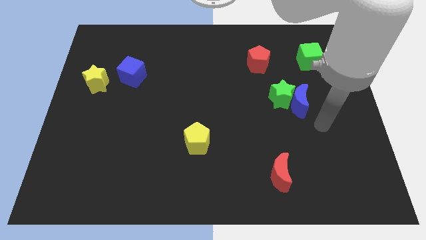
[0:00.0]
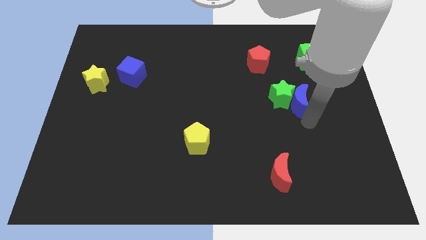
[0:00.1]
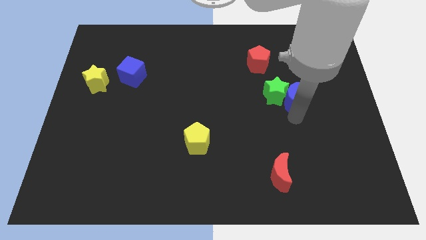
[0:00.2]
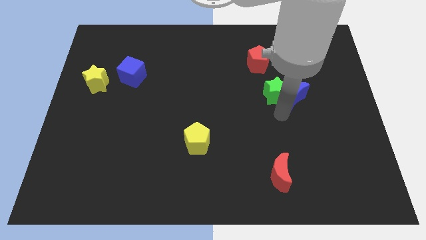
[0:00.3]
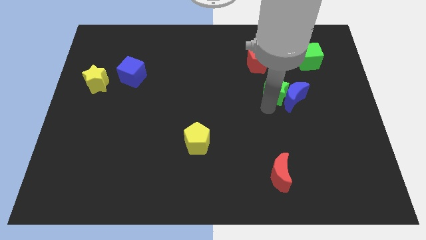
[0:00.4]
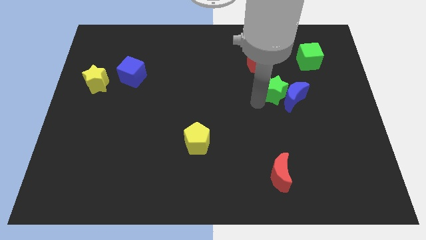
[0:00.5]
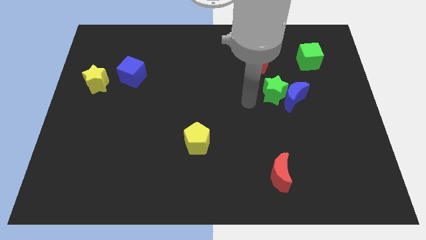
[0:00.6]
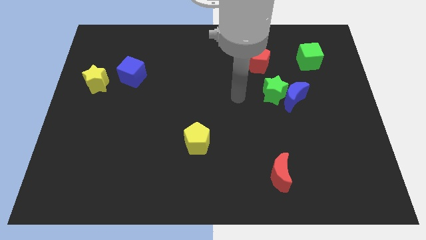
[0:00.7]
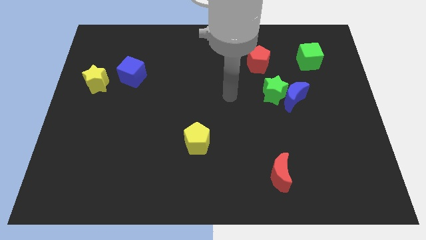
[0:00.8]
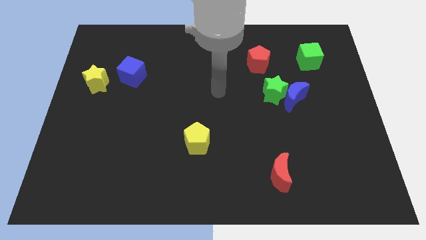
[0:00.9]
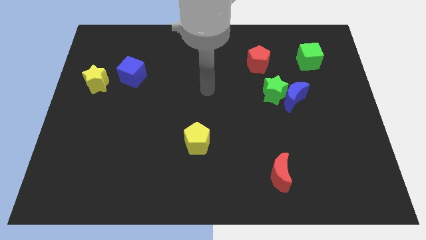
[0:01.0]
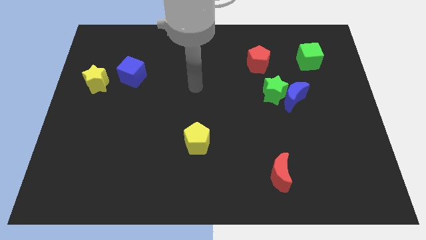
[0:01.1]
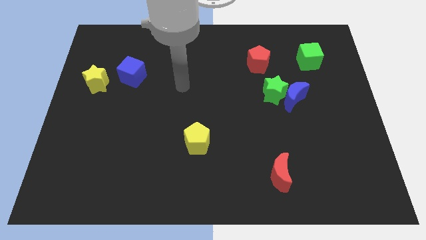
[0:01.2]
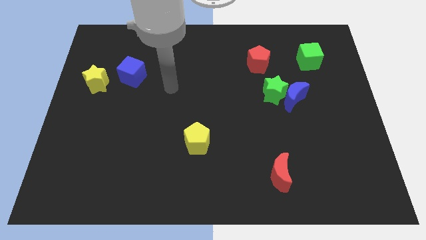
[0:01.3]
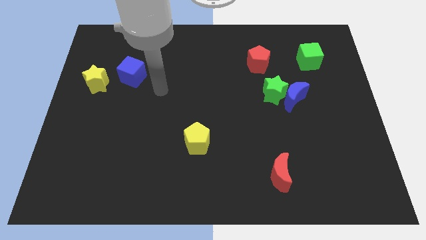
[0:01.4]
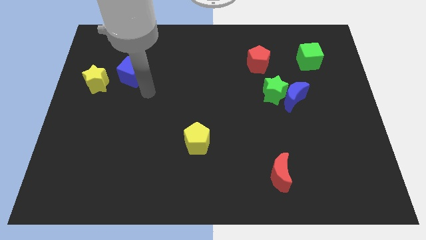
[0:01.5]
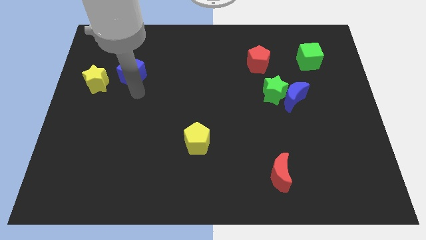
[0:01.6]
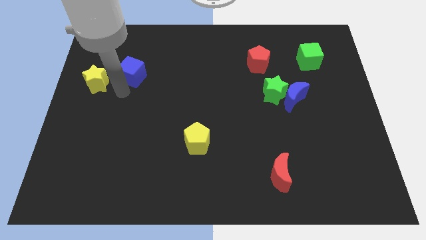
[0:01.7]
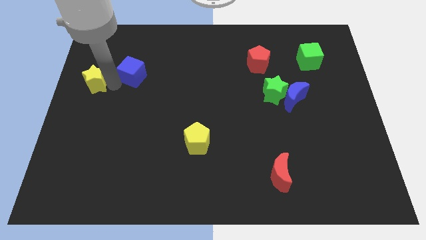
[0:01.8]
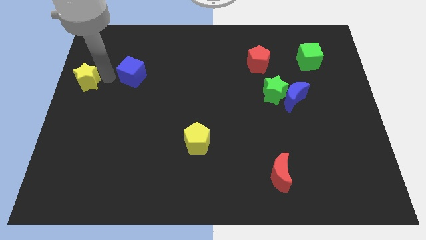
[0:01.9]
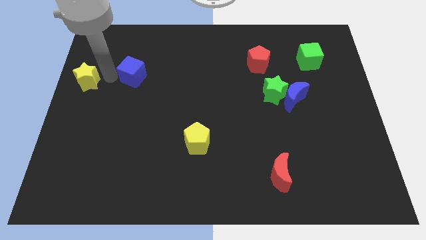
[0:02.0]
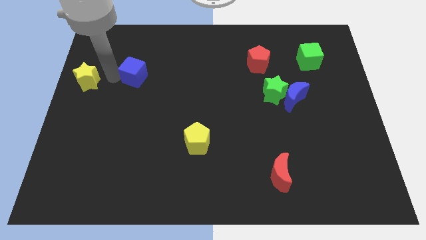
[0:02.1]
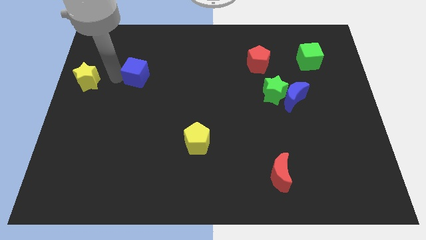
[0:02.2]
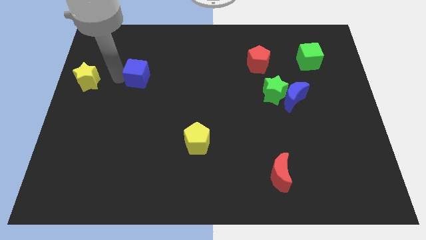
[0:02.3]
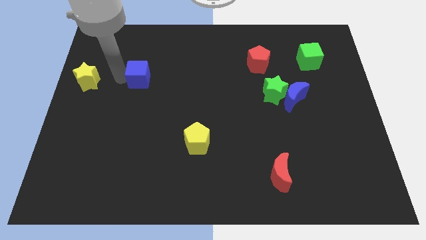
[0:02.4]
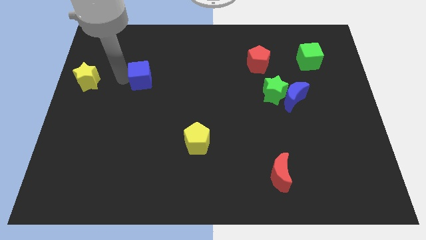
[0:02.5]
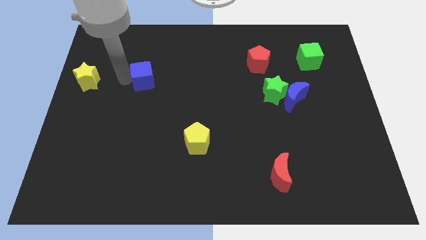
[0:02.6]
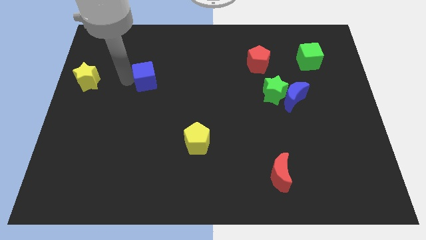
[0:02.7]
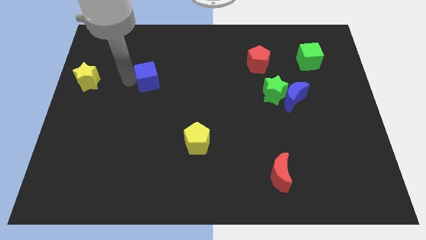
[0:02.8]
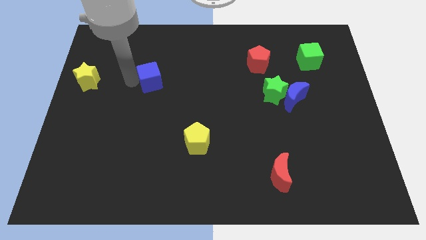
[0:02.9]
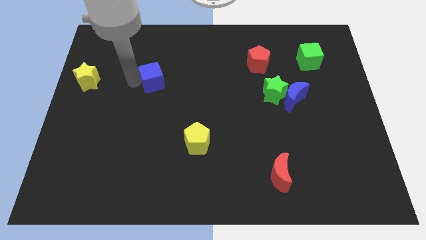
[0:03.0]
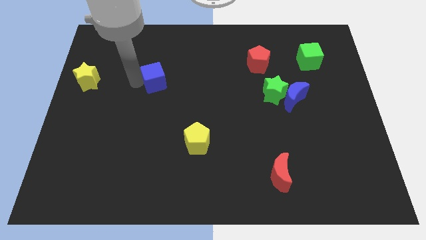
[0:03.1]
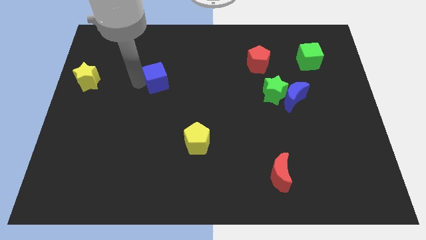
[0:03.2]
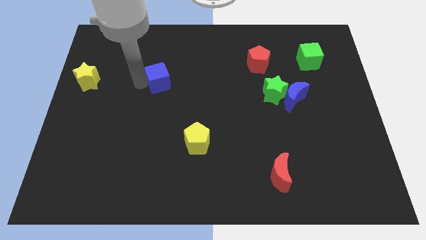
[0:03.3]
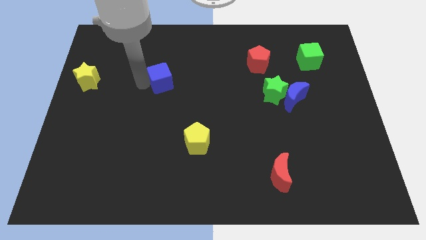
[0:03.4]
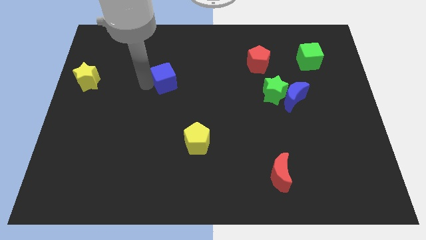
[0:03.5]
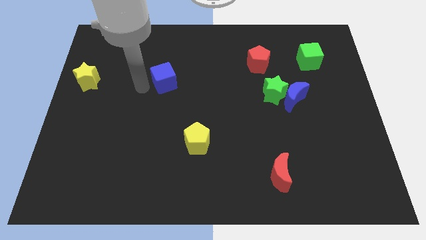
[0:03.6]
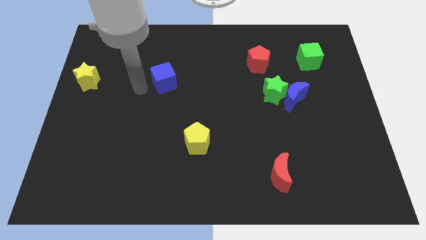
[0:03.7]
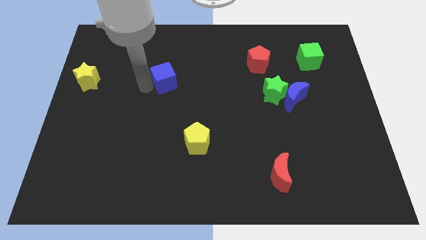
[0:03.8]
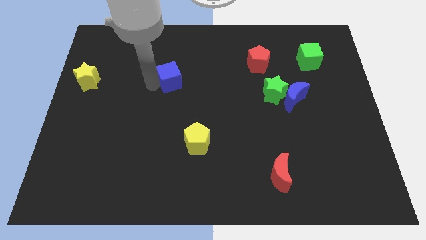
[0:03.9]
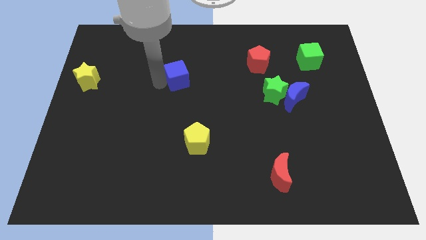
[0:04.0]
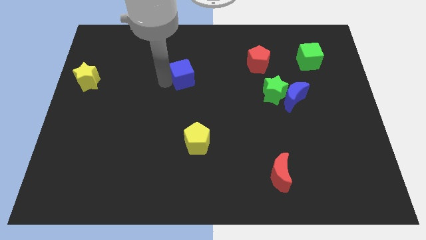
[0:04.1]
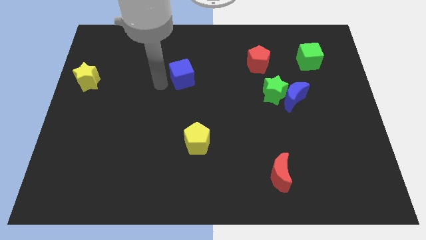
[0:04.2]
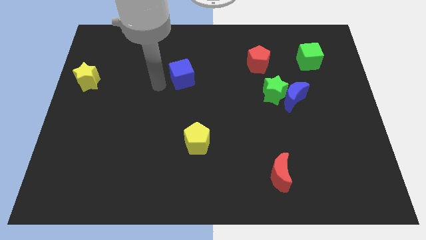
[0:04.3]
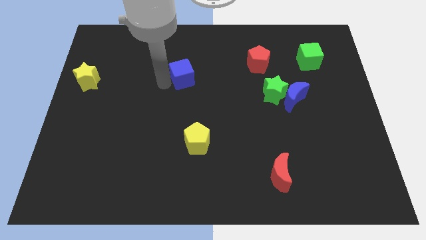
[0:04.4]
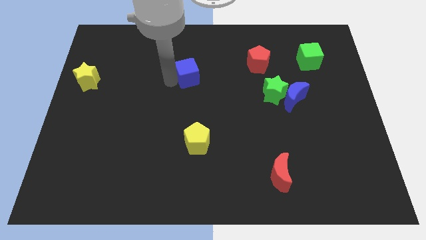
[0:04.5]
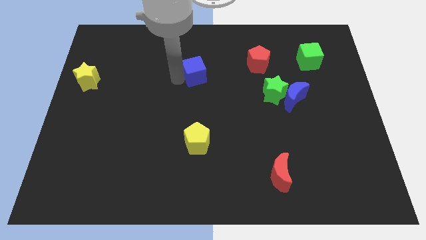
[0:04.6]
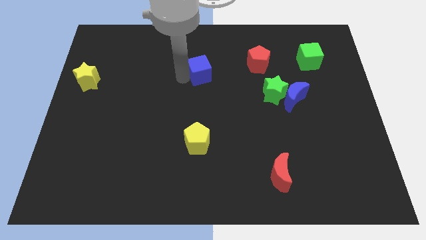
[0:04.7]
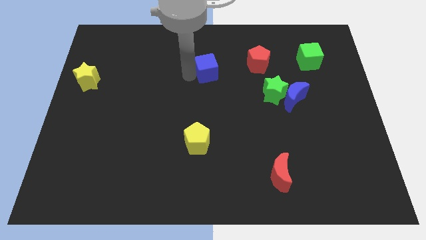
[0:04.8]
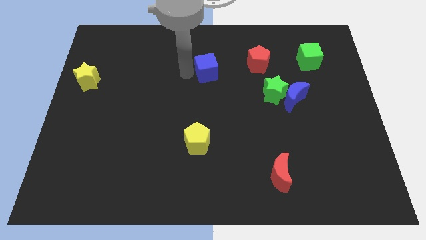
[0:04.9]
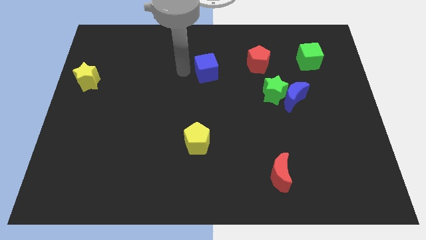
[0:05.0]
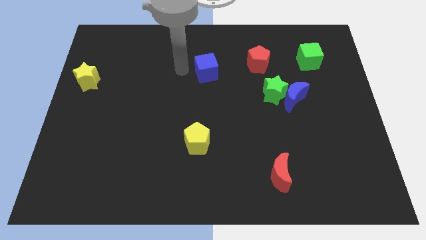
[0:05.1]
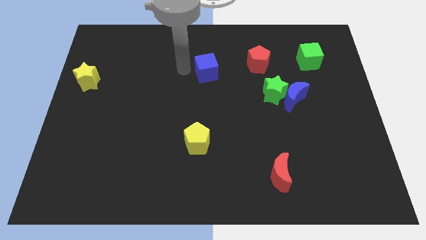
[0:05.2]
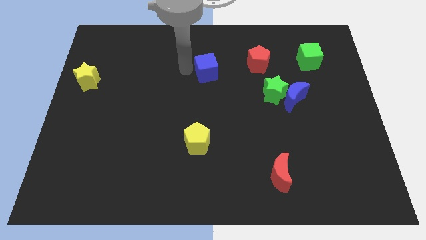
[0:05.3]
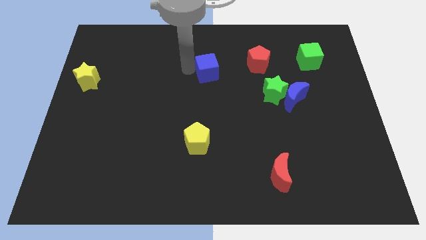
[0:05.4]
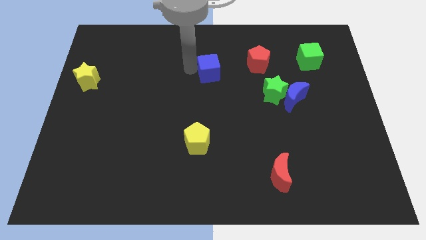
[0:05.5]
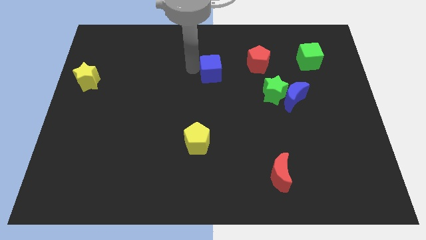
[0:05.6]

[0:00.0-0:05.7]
push the blue cube to the right

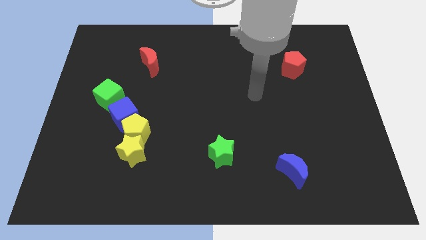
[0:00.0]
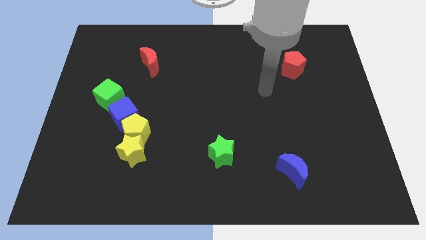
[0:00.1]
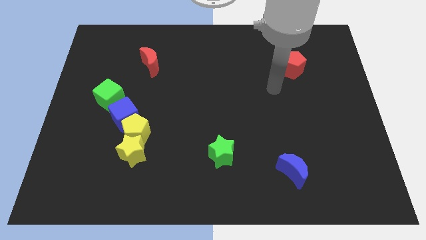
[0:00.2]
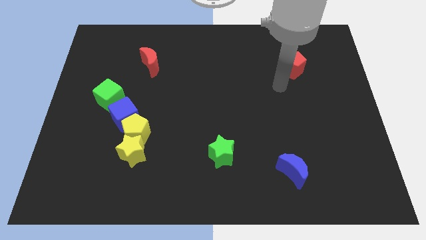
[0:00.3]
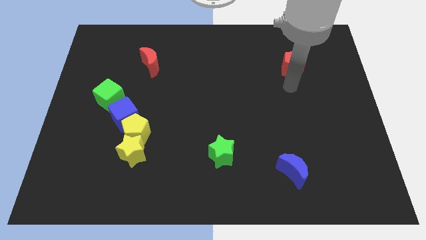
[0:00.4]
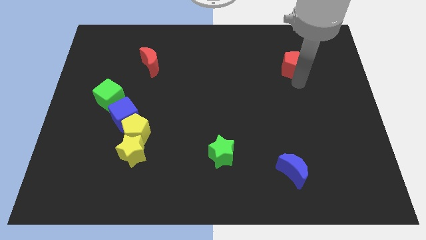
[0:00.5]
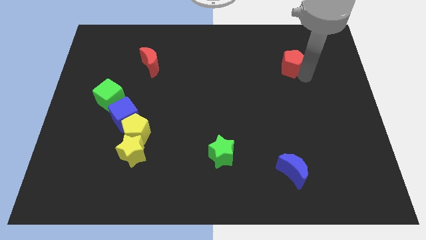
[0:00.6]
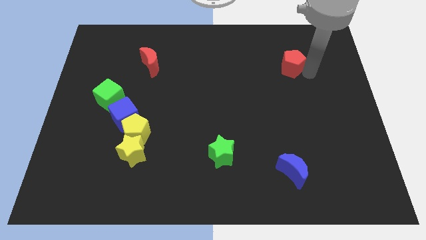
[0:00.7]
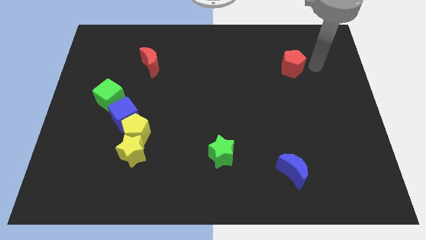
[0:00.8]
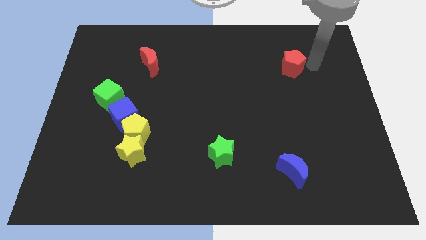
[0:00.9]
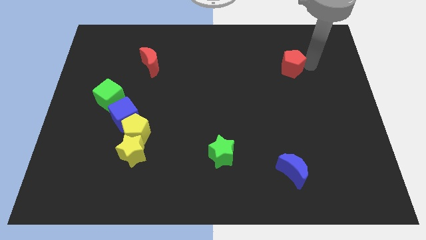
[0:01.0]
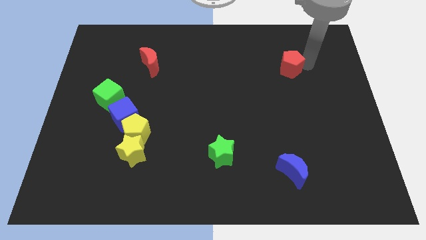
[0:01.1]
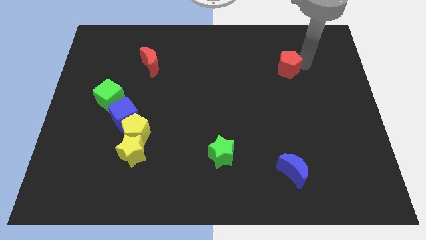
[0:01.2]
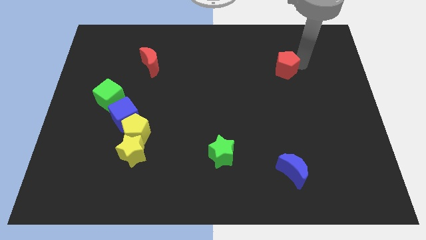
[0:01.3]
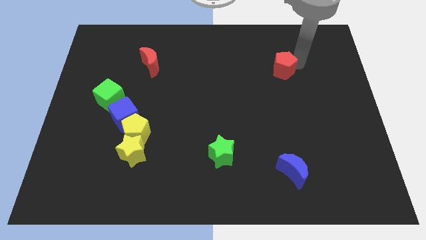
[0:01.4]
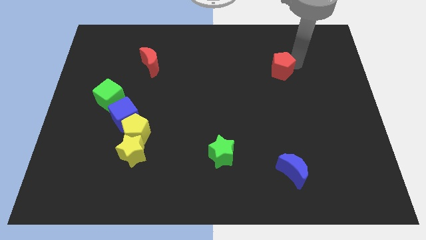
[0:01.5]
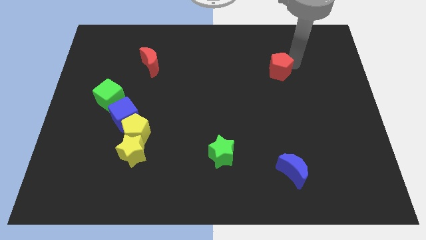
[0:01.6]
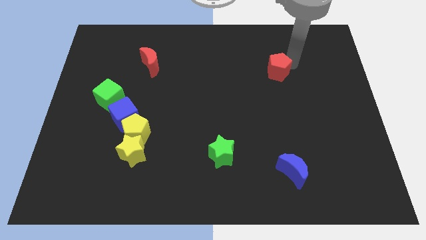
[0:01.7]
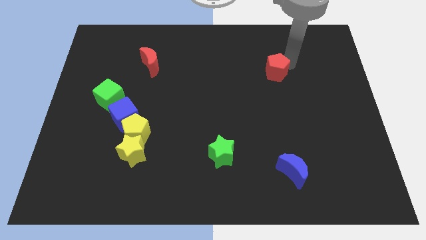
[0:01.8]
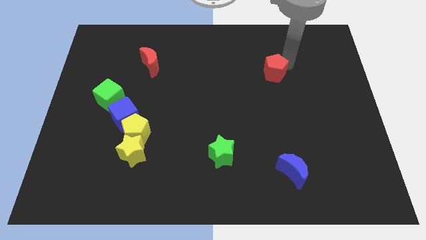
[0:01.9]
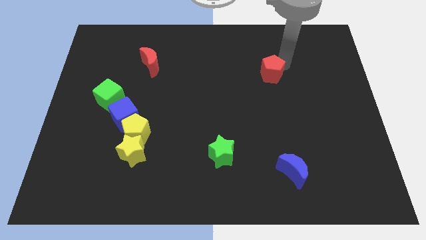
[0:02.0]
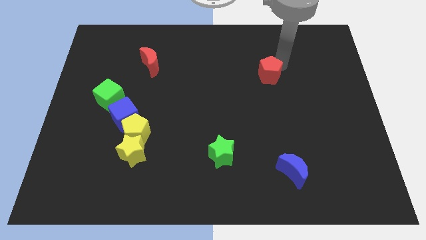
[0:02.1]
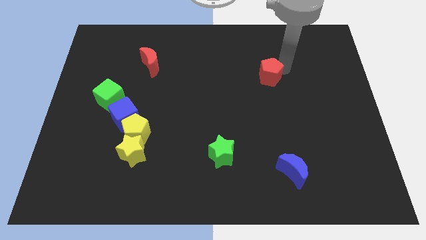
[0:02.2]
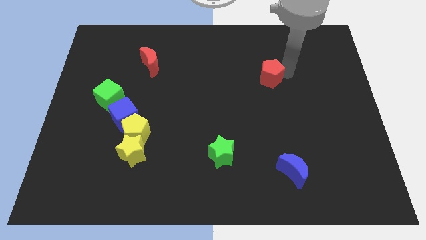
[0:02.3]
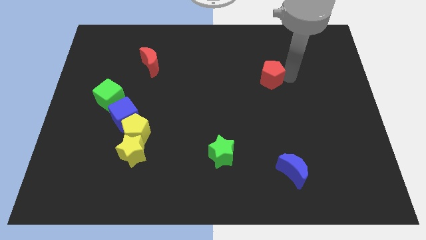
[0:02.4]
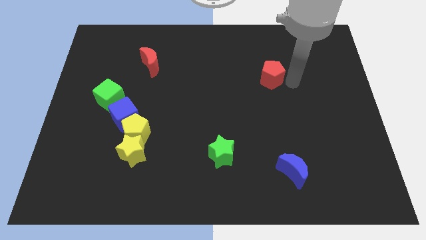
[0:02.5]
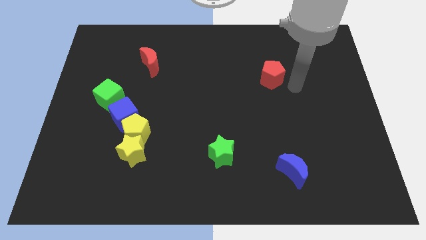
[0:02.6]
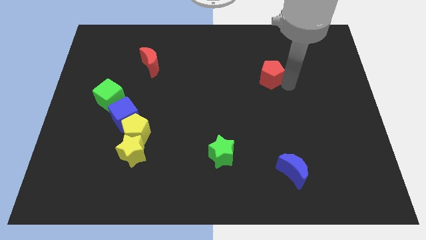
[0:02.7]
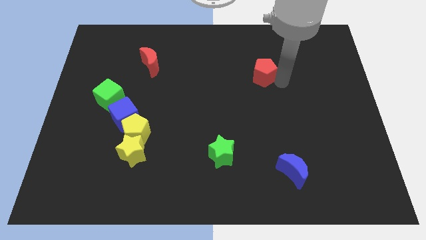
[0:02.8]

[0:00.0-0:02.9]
push the red pentagon left a bit
